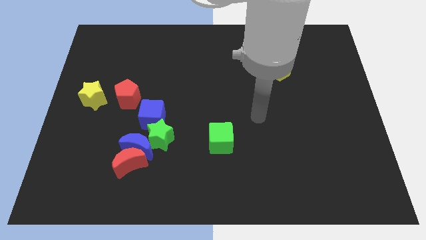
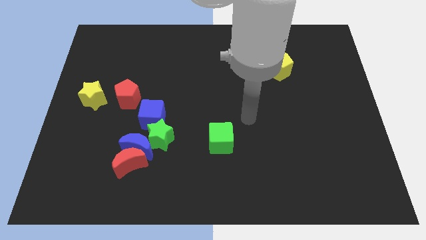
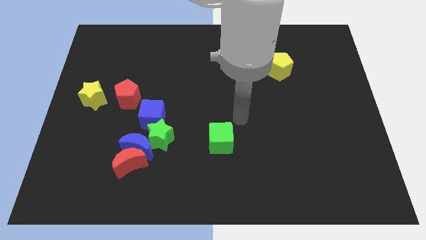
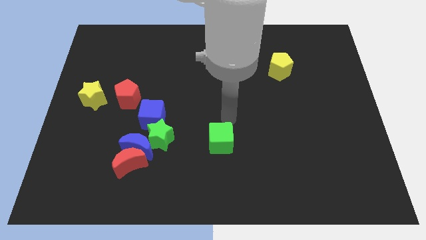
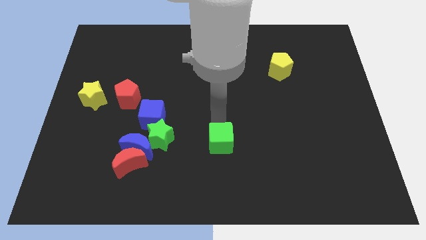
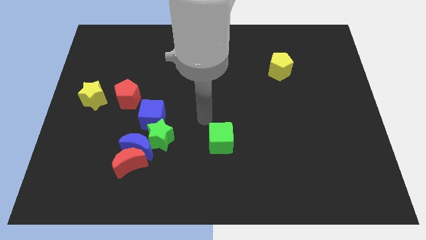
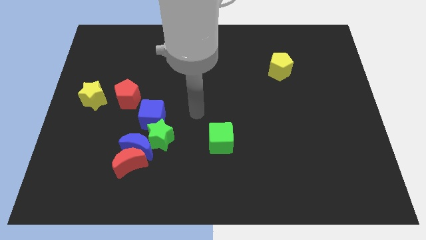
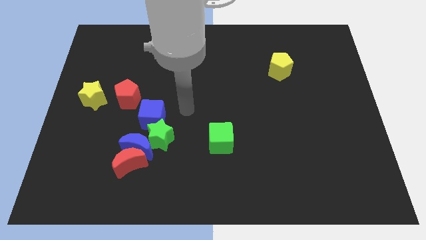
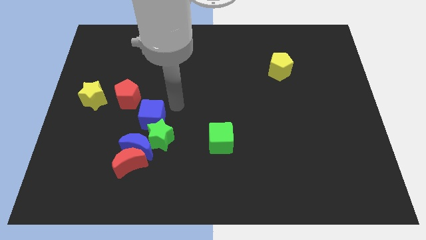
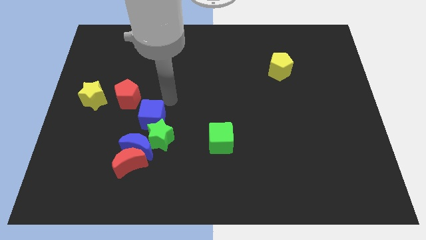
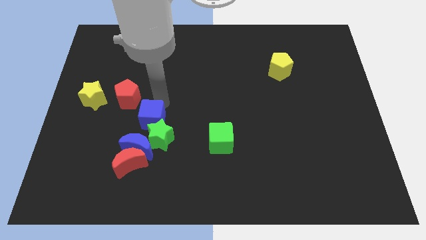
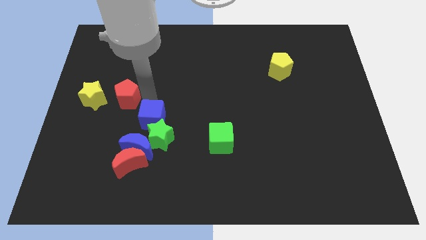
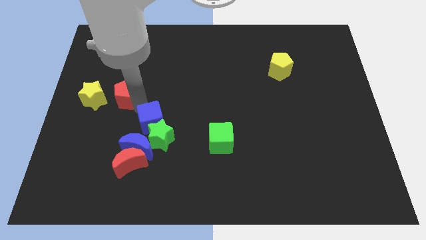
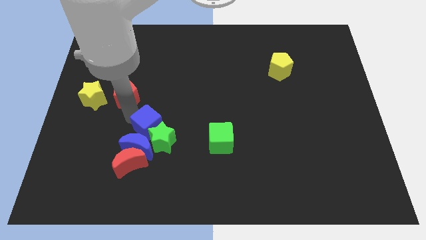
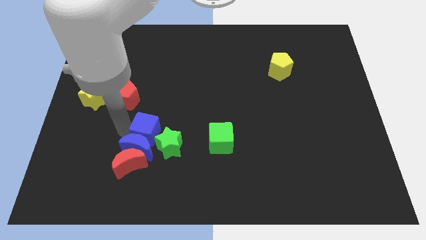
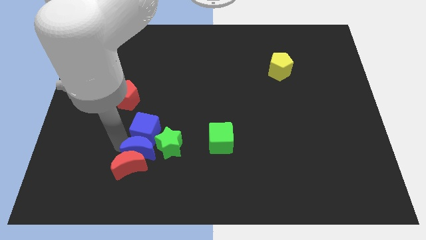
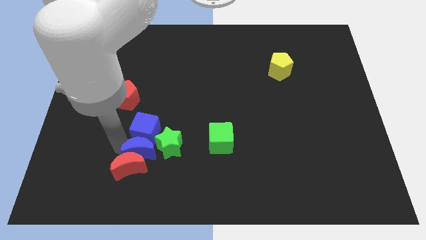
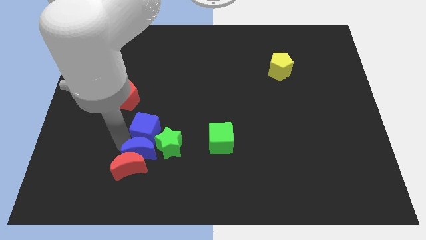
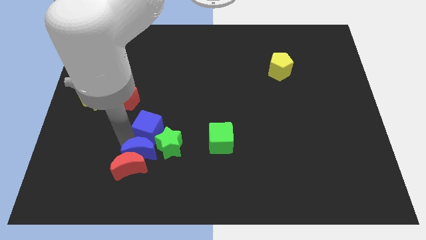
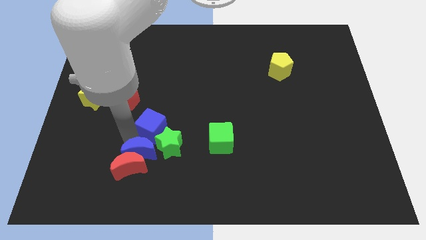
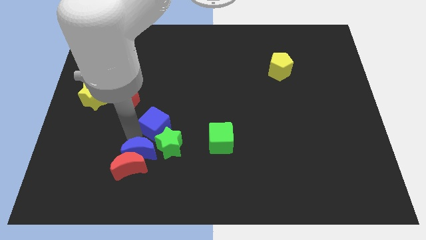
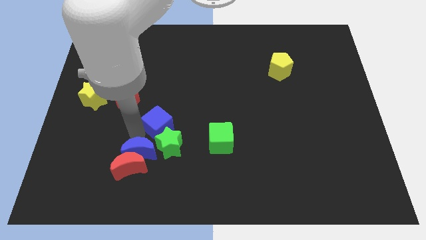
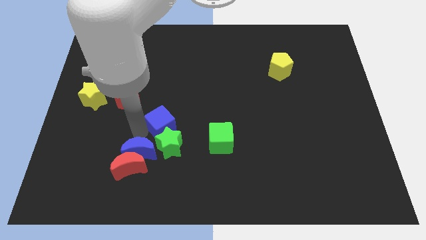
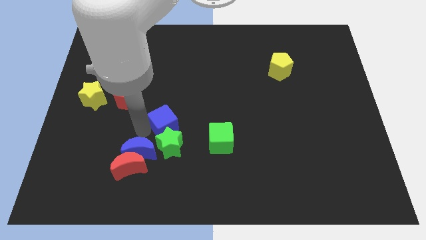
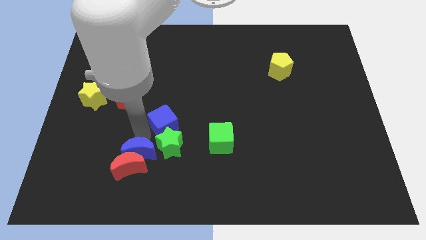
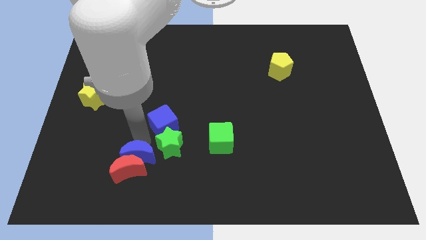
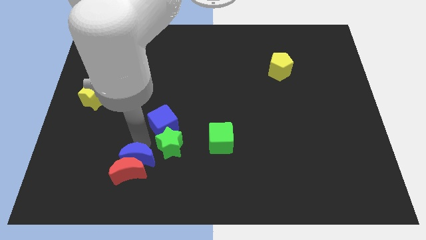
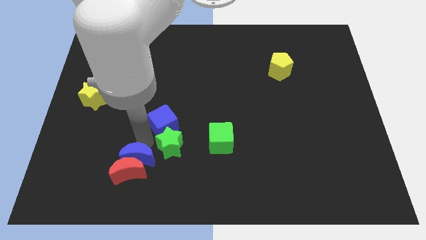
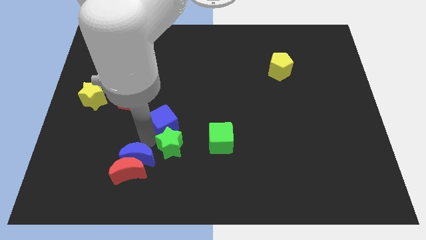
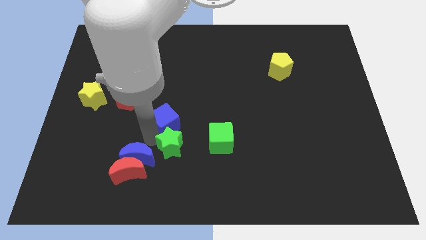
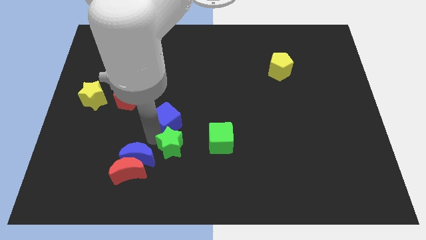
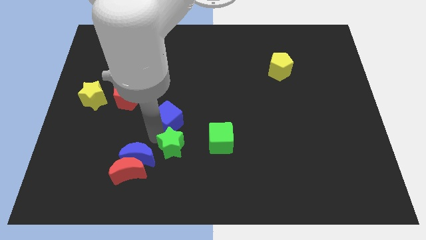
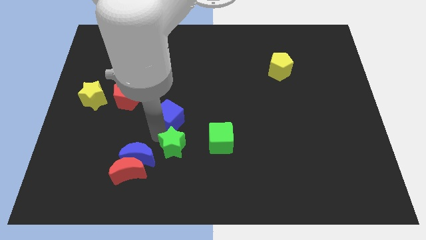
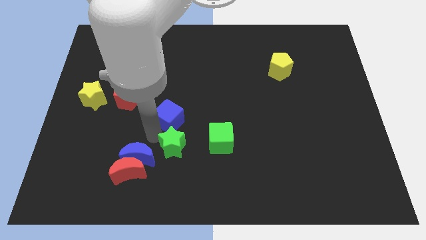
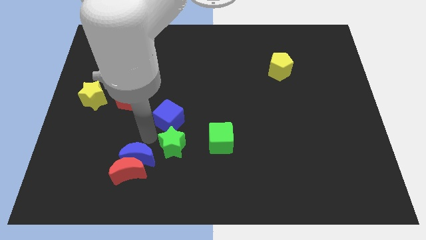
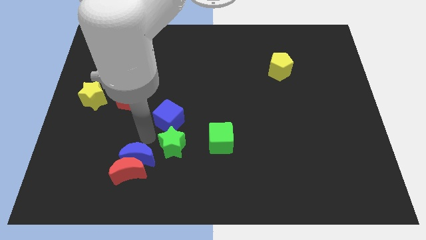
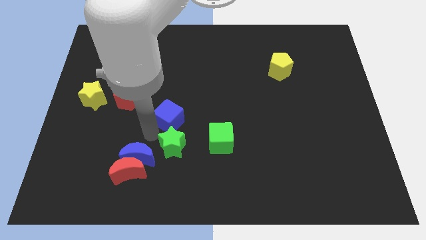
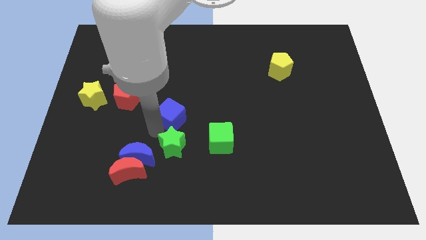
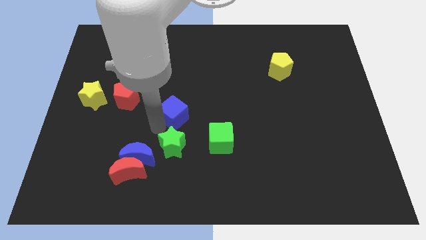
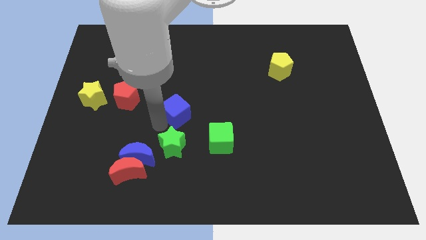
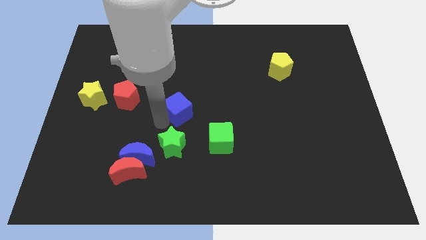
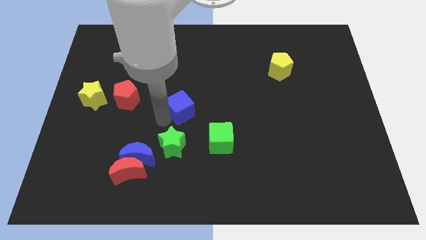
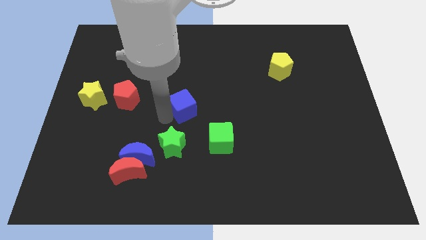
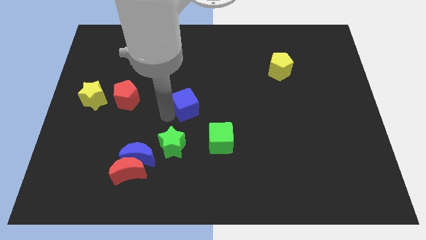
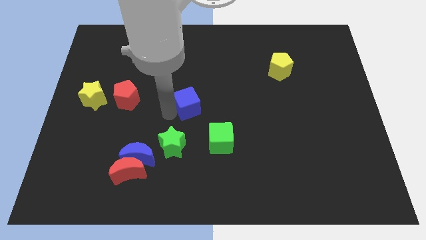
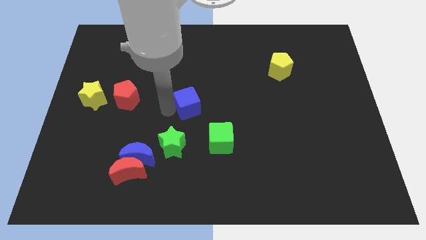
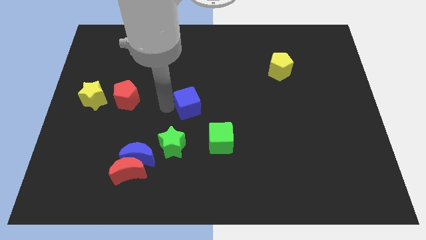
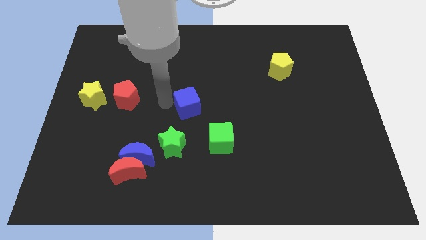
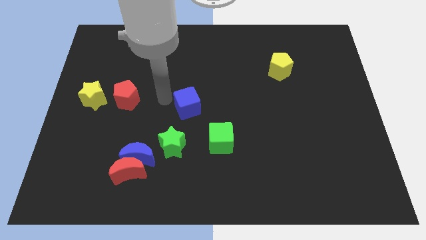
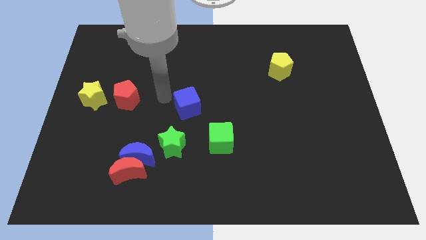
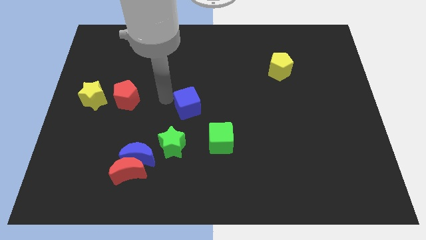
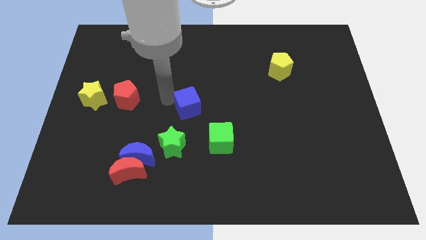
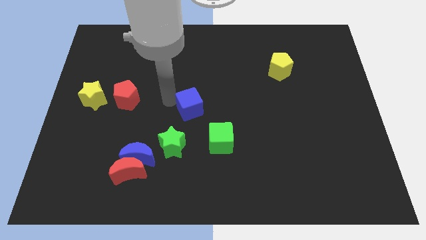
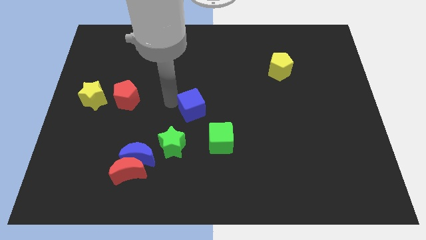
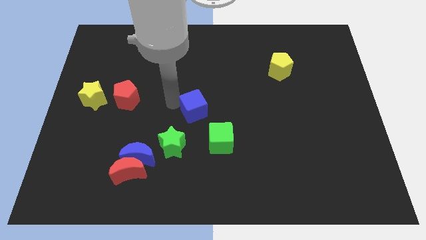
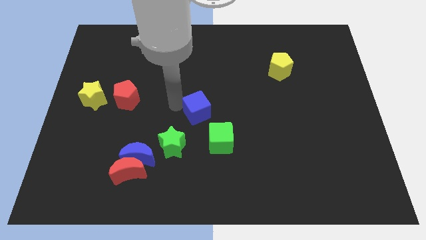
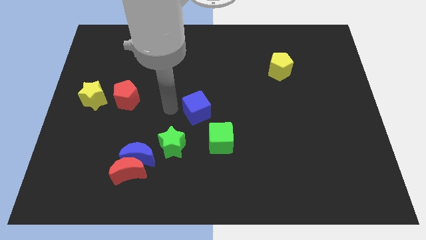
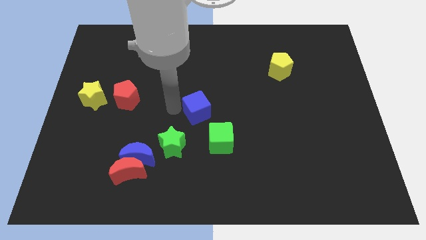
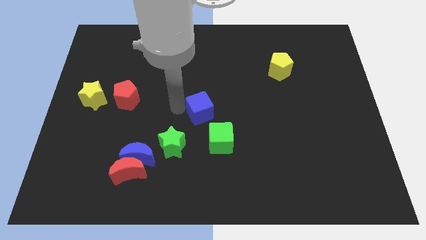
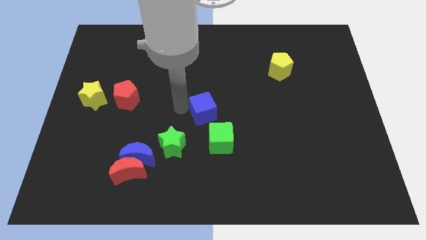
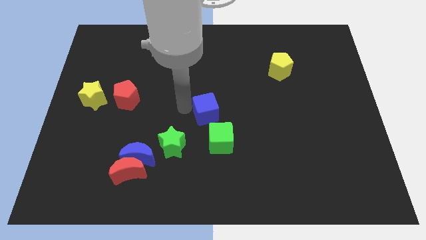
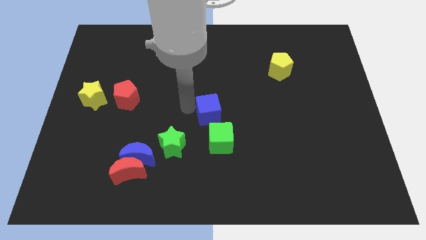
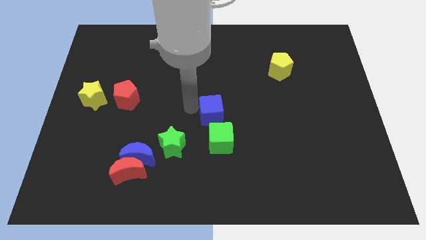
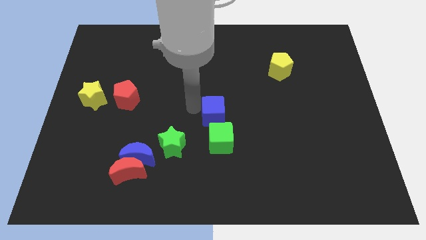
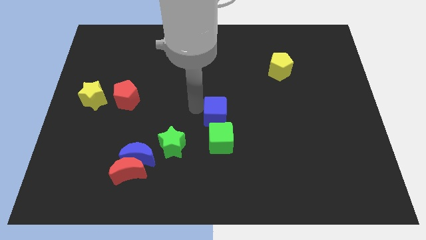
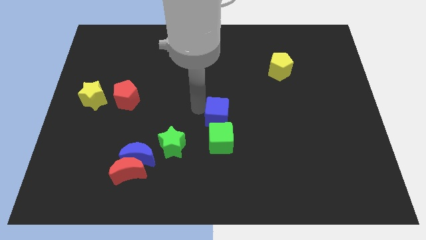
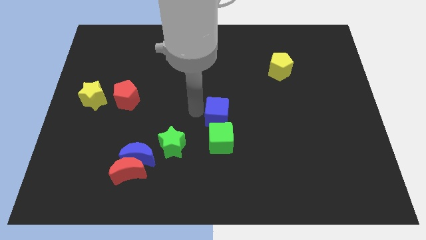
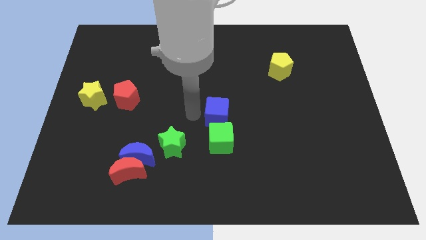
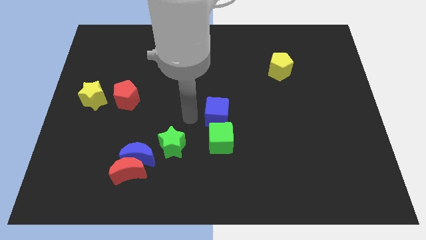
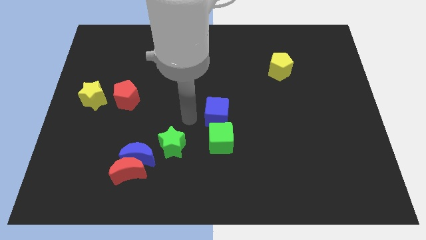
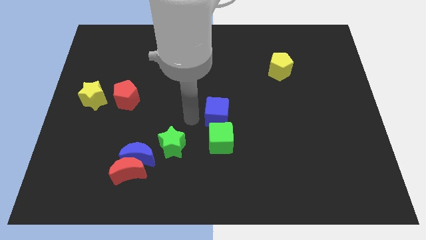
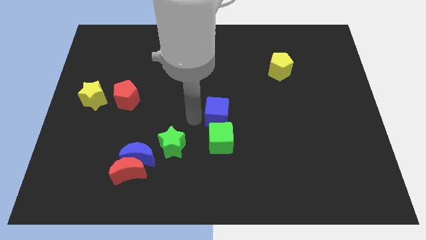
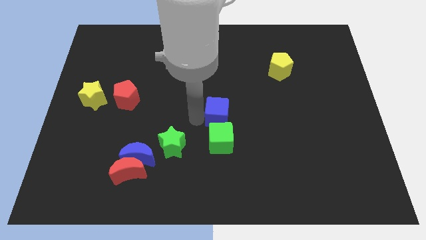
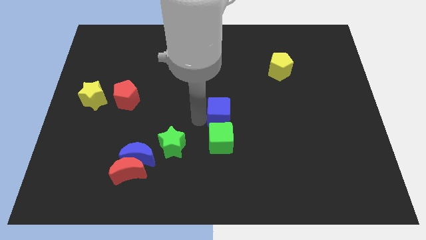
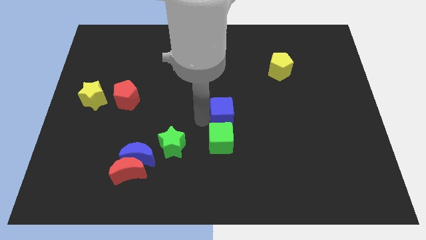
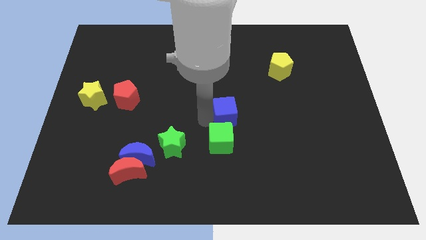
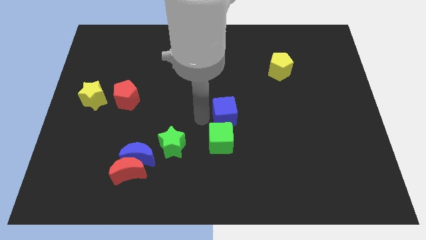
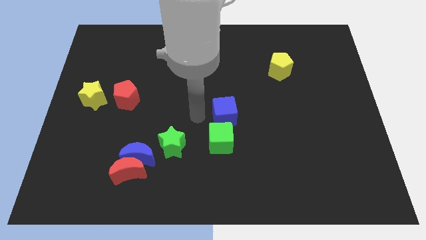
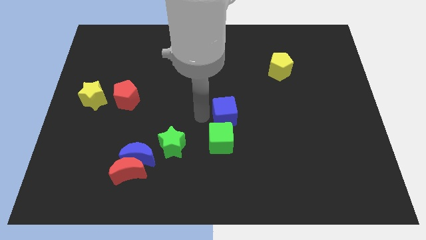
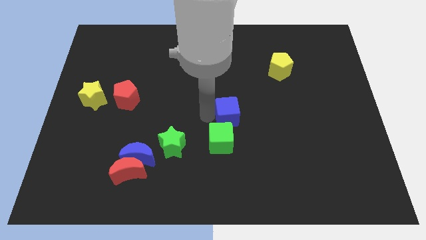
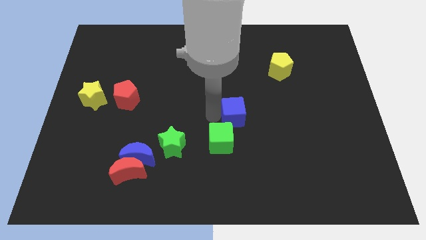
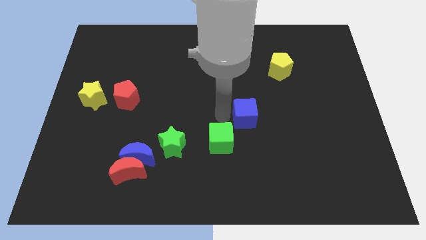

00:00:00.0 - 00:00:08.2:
push the blue cube to the right
